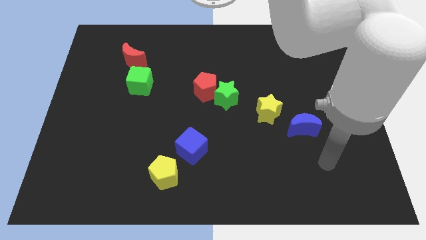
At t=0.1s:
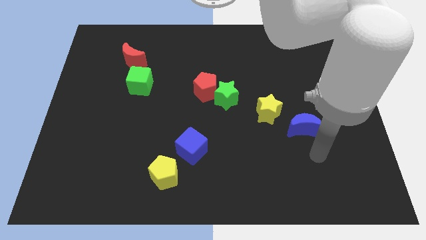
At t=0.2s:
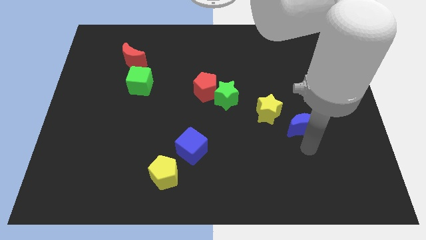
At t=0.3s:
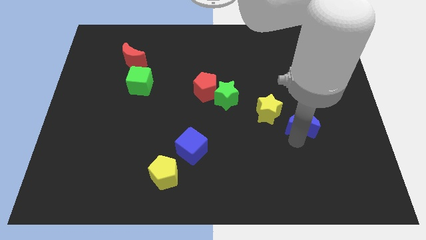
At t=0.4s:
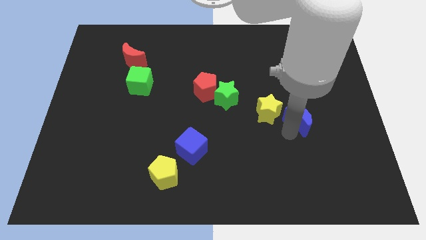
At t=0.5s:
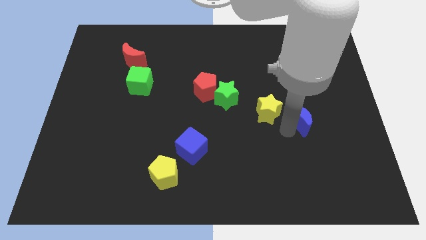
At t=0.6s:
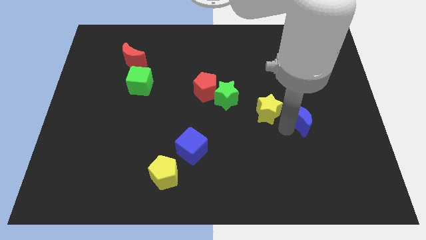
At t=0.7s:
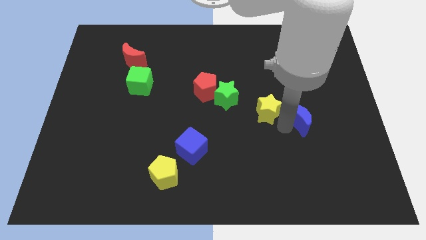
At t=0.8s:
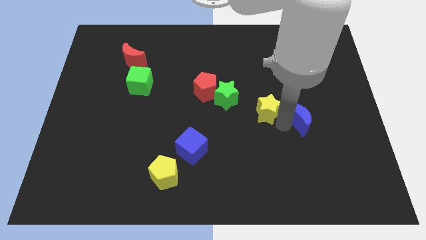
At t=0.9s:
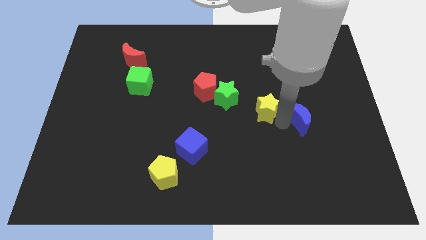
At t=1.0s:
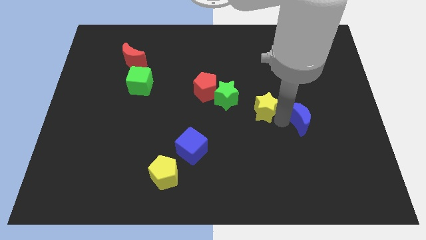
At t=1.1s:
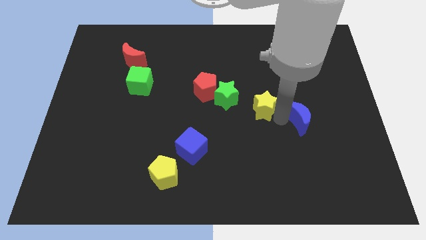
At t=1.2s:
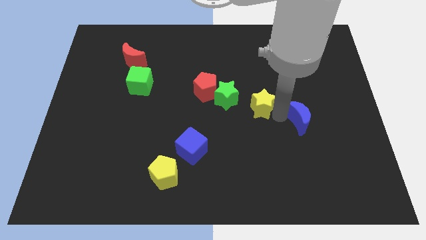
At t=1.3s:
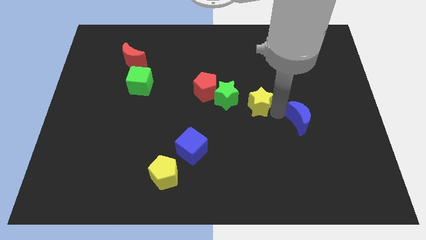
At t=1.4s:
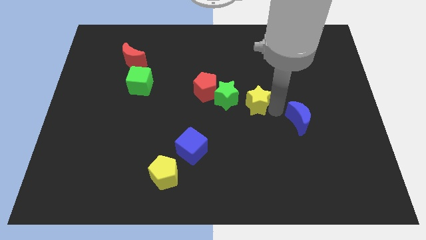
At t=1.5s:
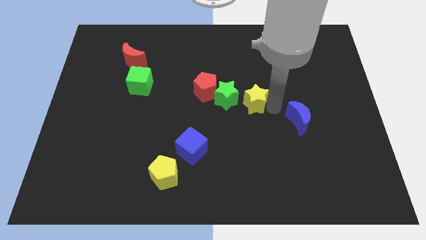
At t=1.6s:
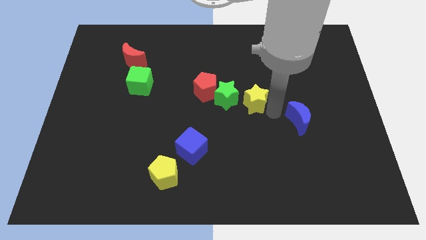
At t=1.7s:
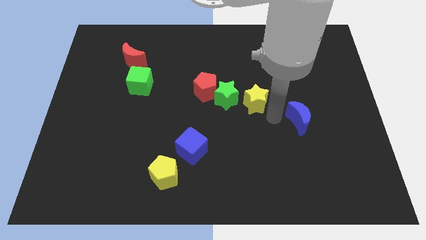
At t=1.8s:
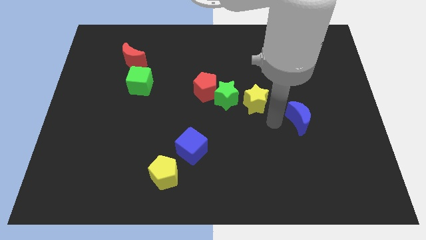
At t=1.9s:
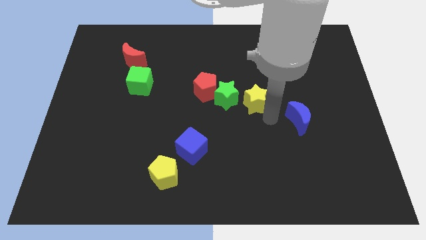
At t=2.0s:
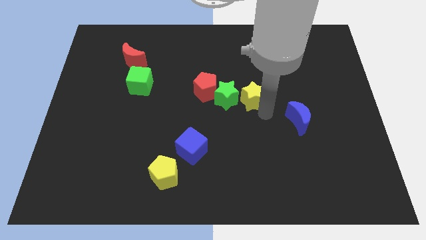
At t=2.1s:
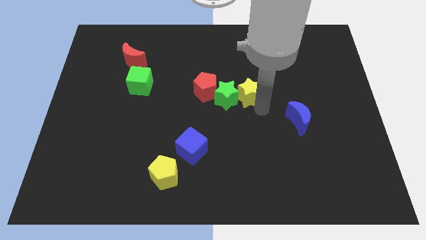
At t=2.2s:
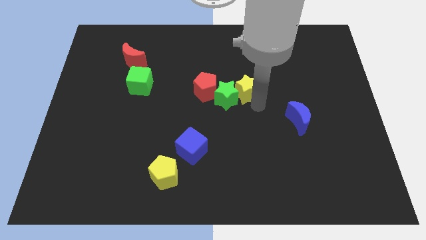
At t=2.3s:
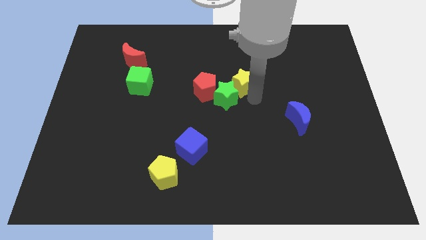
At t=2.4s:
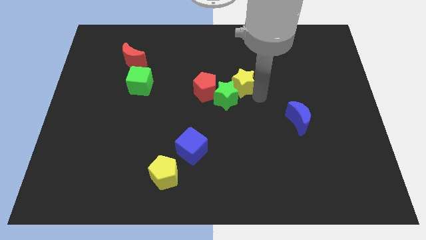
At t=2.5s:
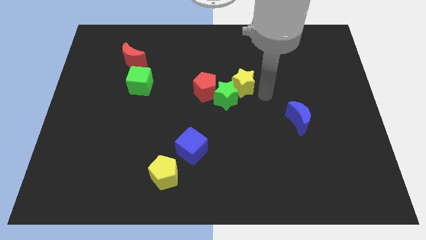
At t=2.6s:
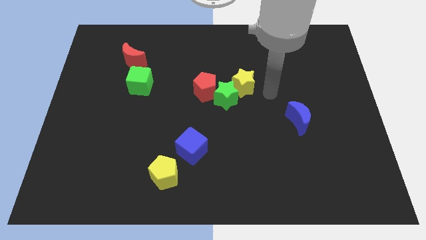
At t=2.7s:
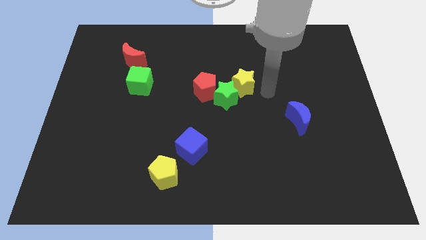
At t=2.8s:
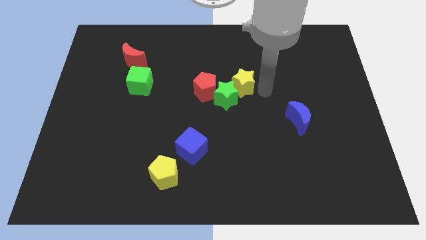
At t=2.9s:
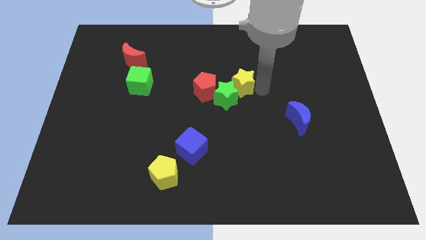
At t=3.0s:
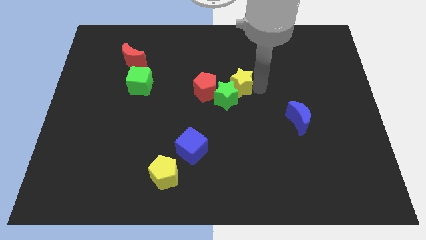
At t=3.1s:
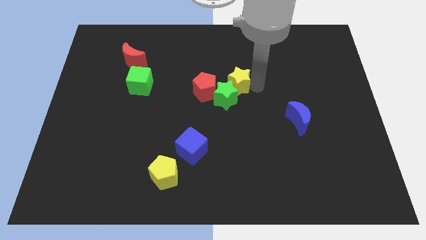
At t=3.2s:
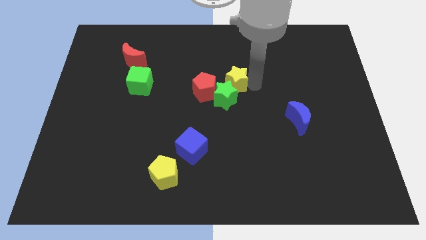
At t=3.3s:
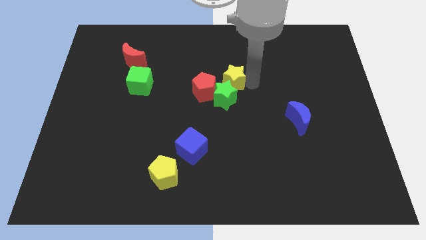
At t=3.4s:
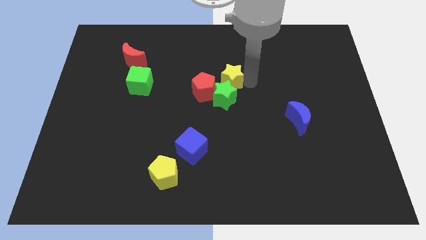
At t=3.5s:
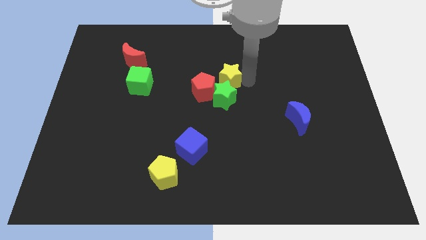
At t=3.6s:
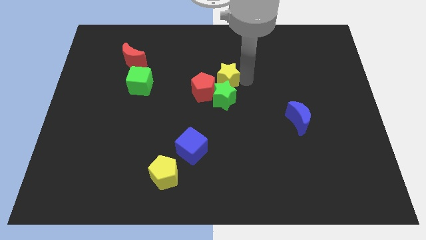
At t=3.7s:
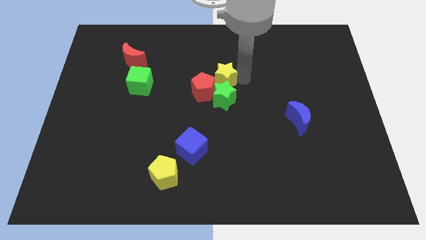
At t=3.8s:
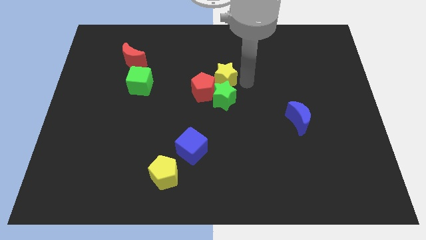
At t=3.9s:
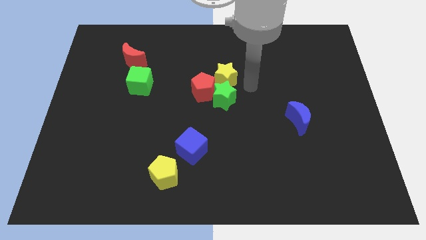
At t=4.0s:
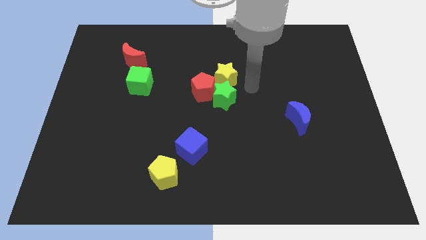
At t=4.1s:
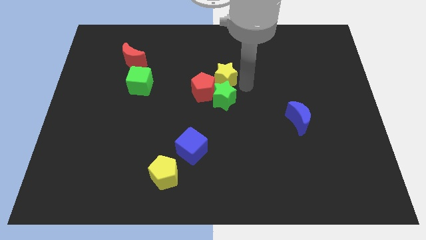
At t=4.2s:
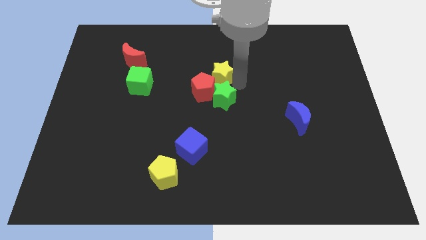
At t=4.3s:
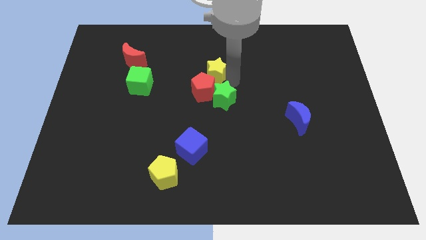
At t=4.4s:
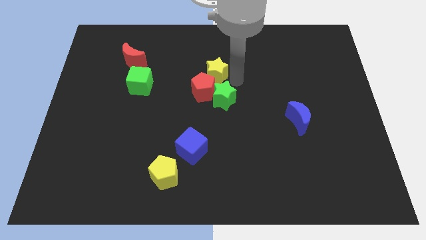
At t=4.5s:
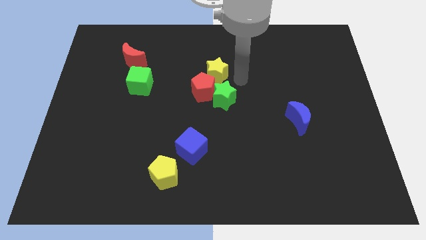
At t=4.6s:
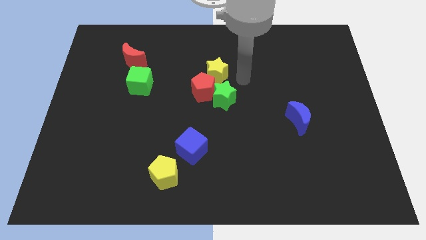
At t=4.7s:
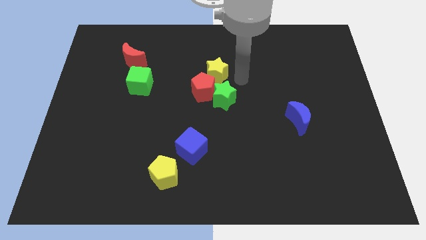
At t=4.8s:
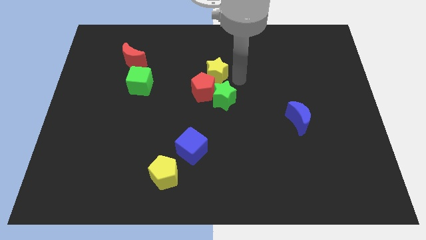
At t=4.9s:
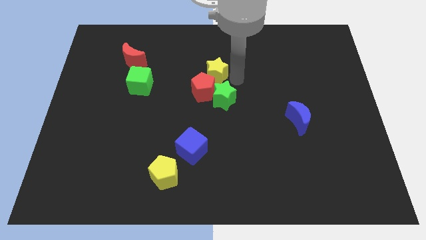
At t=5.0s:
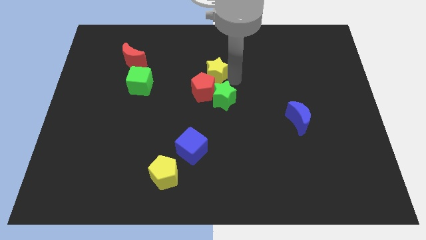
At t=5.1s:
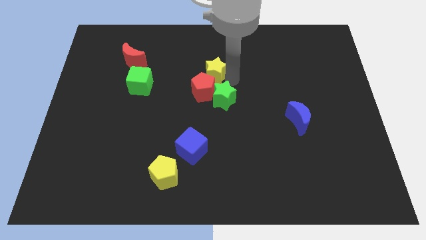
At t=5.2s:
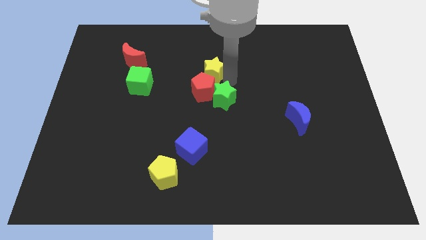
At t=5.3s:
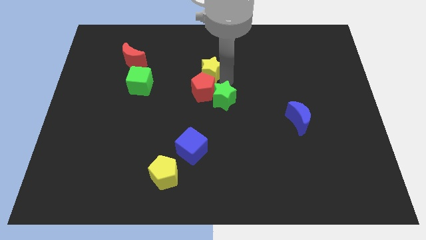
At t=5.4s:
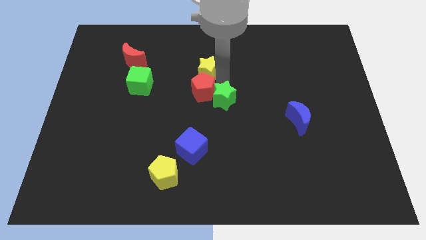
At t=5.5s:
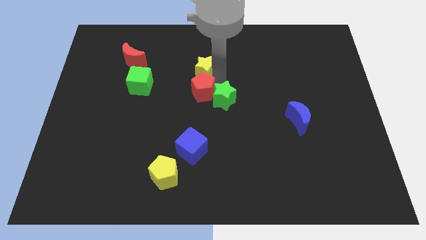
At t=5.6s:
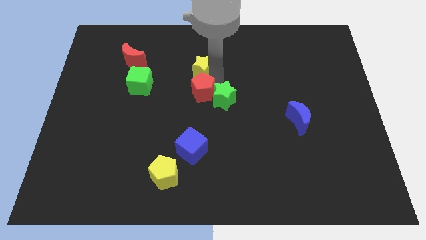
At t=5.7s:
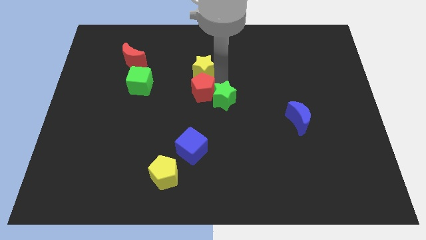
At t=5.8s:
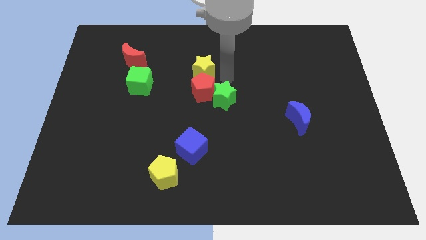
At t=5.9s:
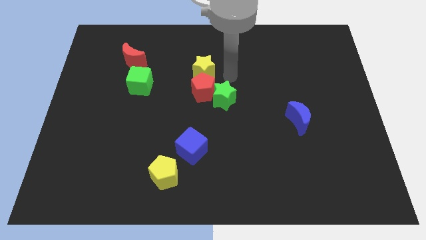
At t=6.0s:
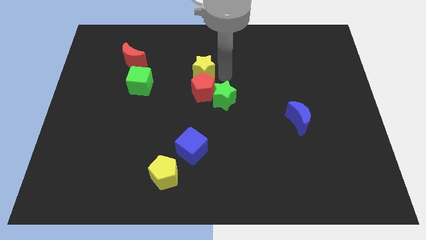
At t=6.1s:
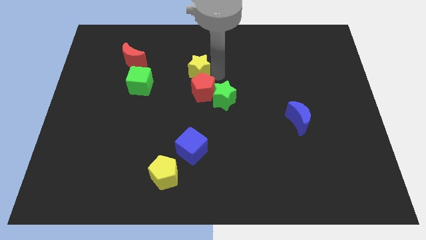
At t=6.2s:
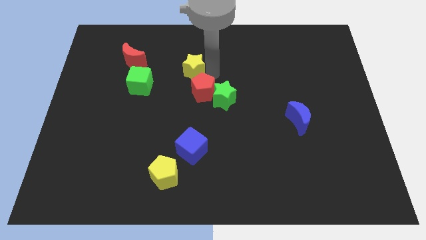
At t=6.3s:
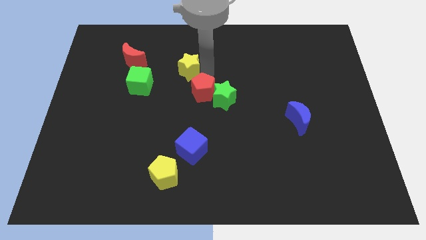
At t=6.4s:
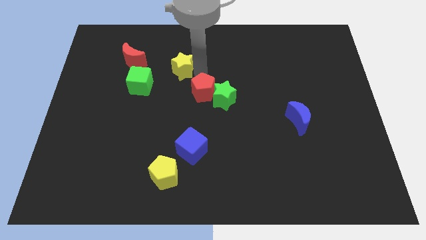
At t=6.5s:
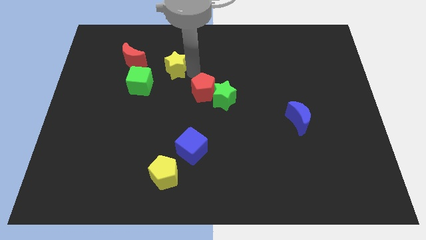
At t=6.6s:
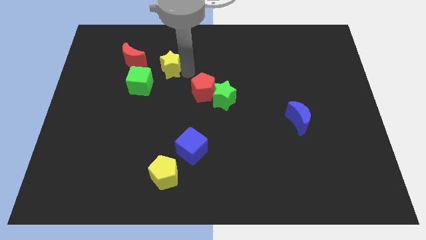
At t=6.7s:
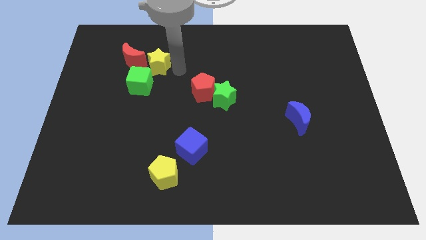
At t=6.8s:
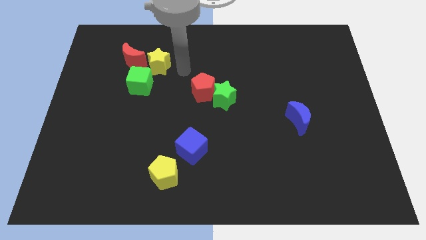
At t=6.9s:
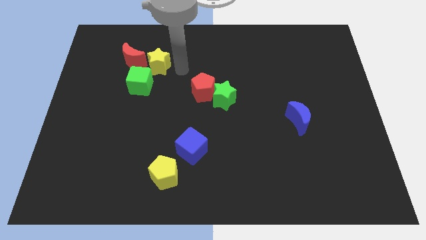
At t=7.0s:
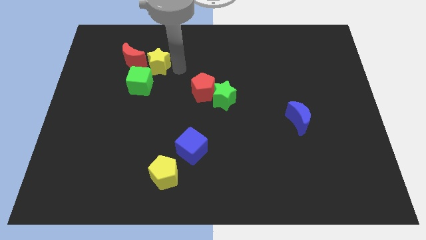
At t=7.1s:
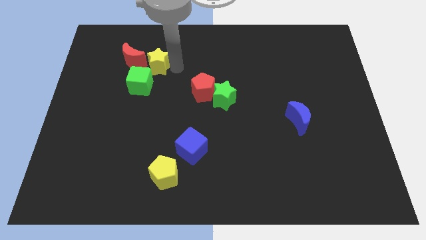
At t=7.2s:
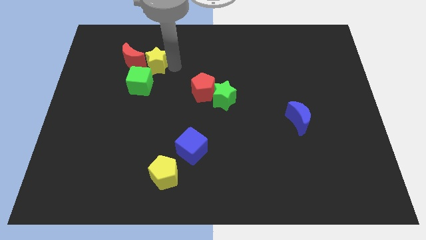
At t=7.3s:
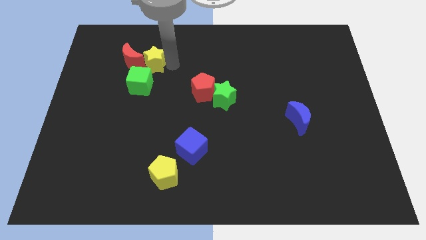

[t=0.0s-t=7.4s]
slide the yellow star towards the red moon
